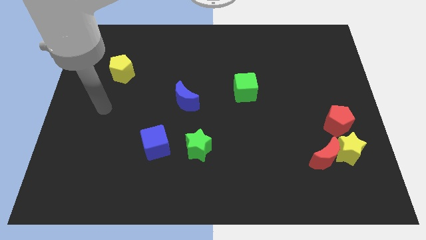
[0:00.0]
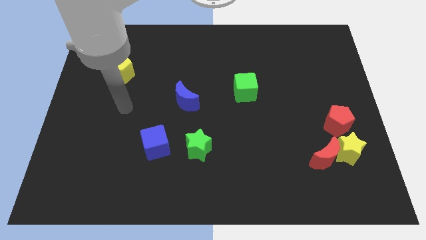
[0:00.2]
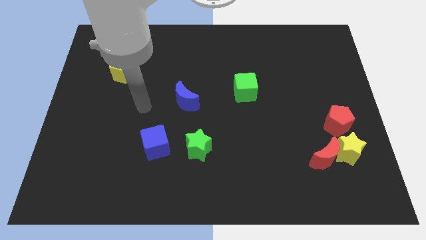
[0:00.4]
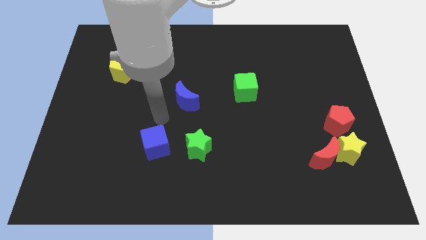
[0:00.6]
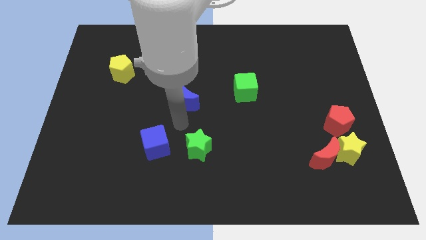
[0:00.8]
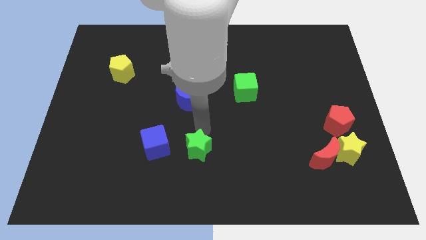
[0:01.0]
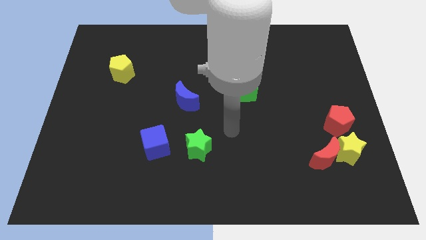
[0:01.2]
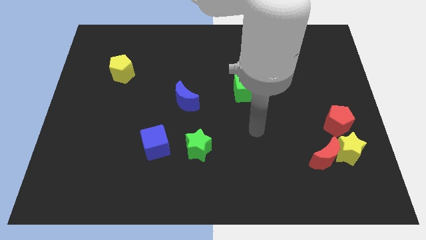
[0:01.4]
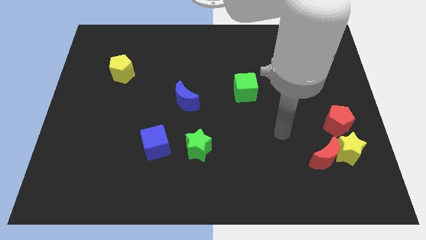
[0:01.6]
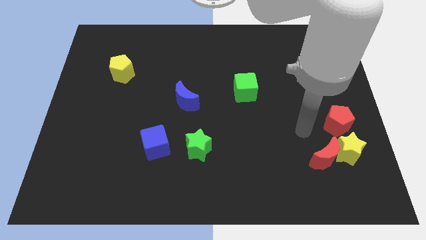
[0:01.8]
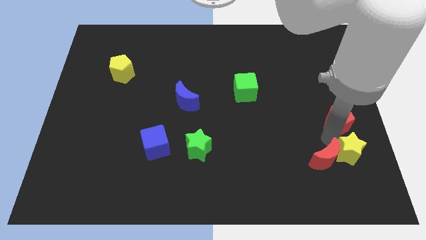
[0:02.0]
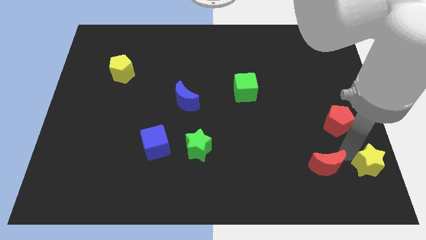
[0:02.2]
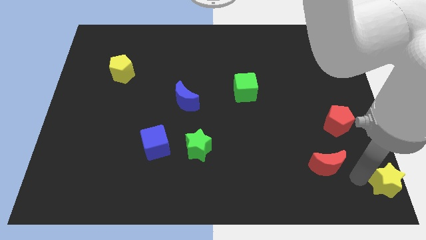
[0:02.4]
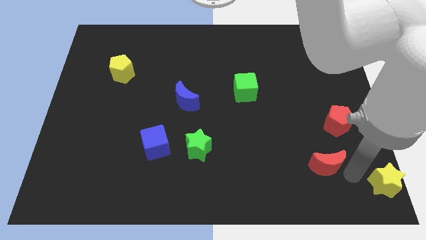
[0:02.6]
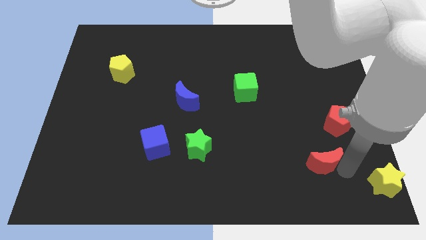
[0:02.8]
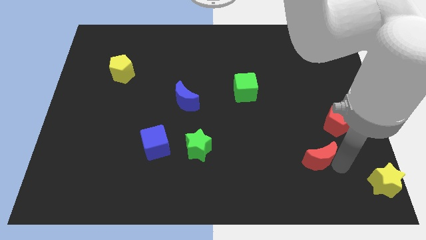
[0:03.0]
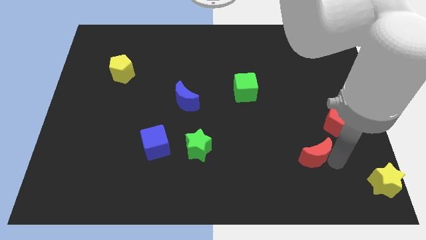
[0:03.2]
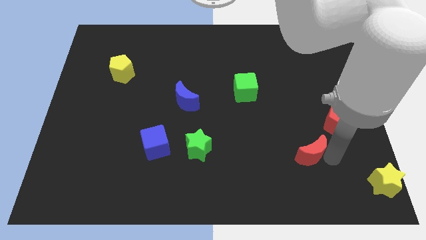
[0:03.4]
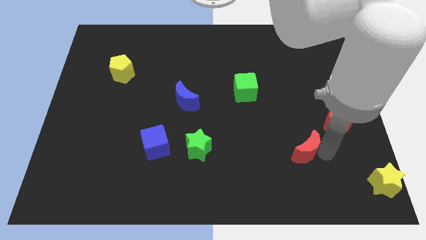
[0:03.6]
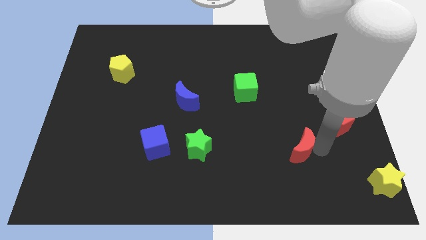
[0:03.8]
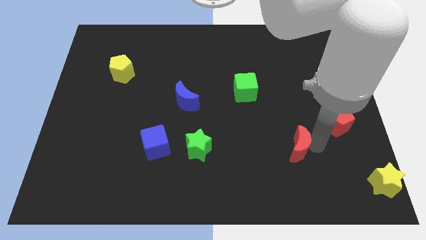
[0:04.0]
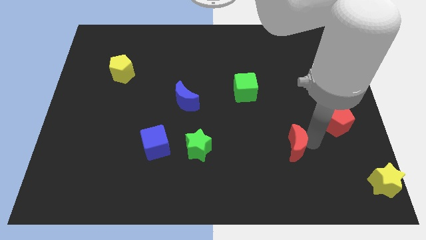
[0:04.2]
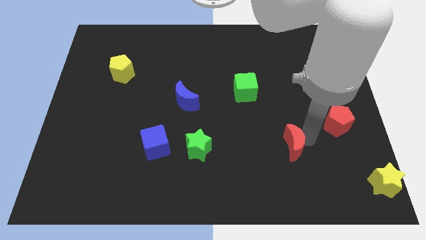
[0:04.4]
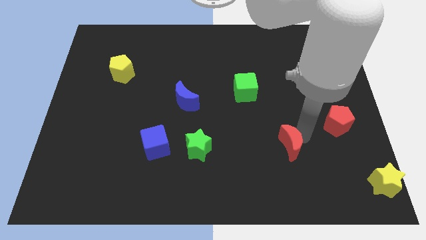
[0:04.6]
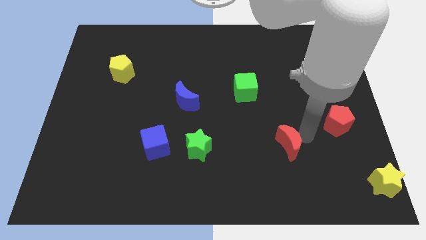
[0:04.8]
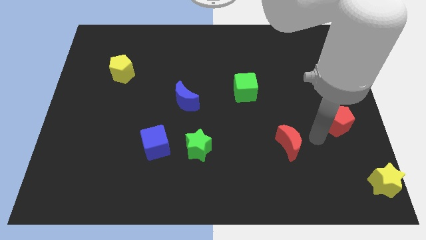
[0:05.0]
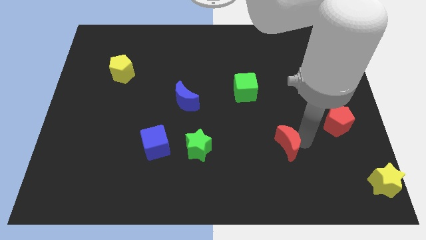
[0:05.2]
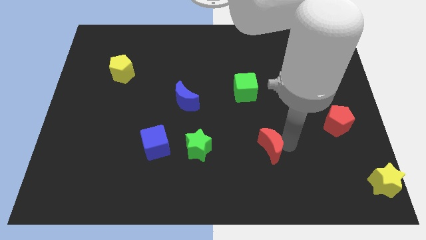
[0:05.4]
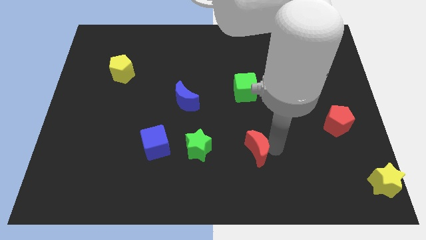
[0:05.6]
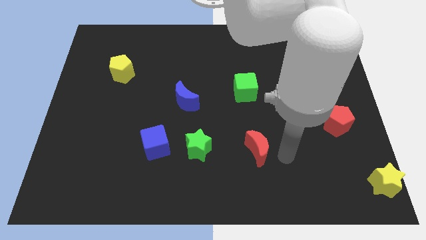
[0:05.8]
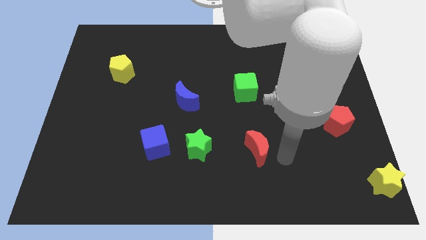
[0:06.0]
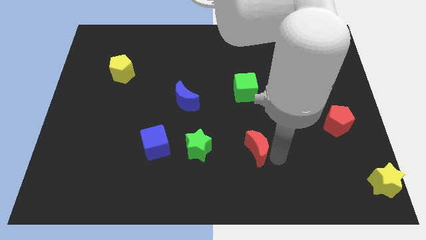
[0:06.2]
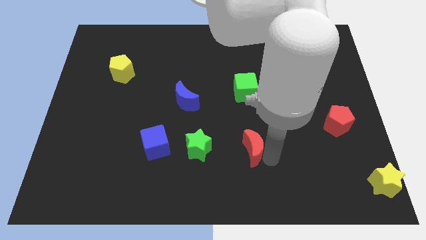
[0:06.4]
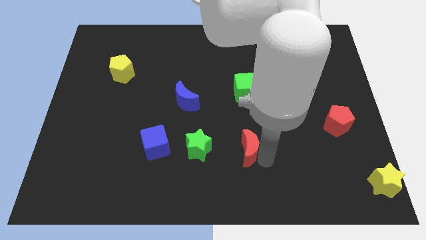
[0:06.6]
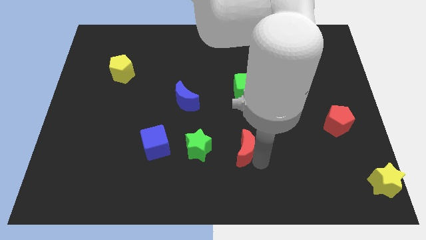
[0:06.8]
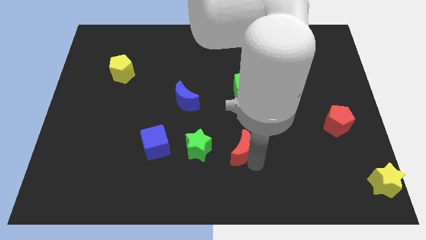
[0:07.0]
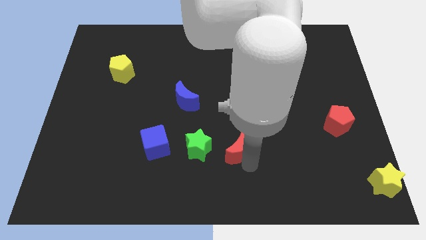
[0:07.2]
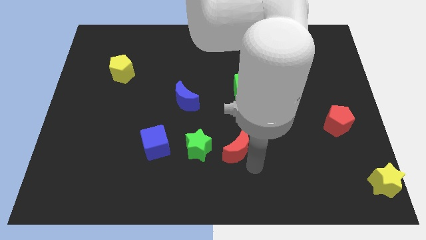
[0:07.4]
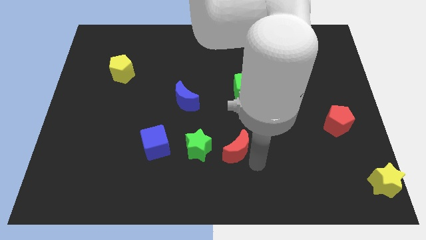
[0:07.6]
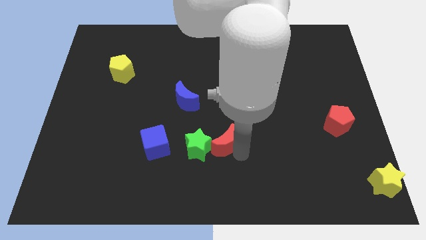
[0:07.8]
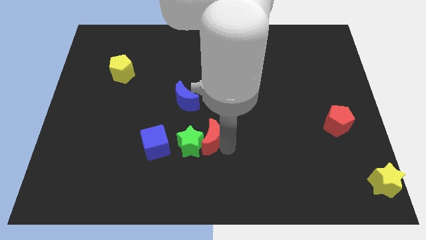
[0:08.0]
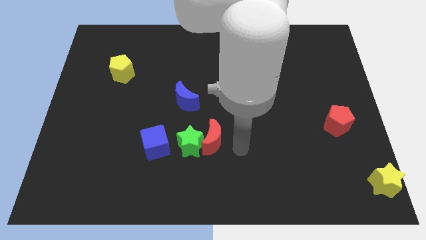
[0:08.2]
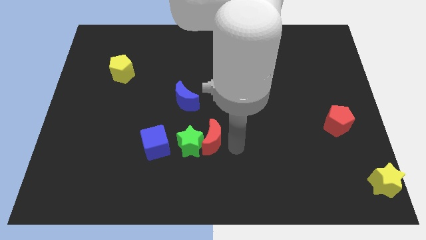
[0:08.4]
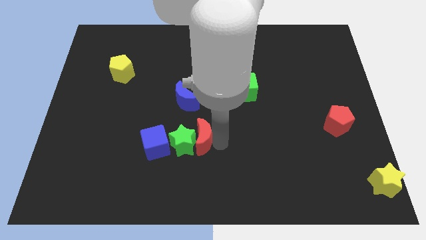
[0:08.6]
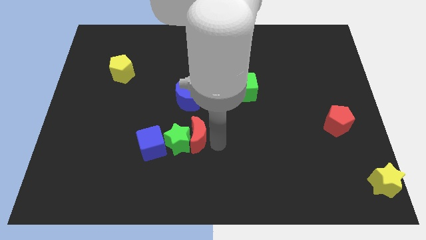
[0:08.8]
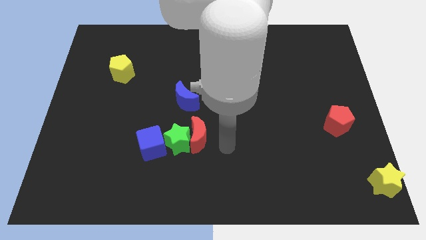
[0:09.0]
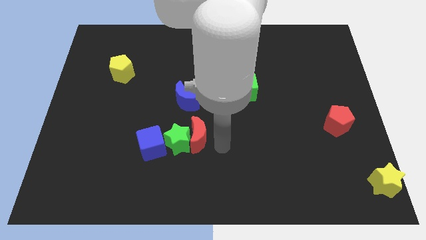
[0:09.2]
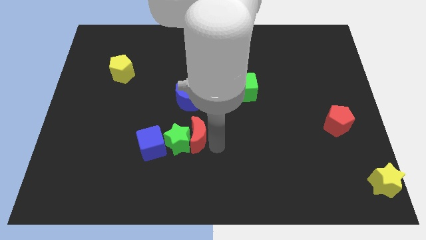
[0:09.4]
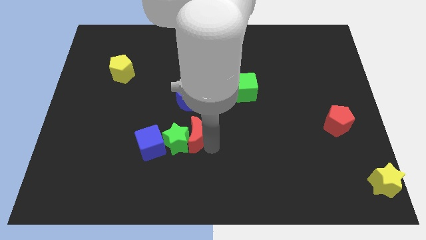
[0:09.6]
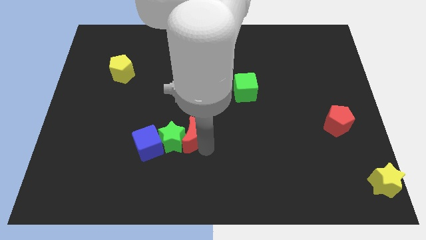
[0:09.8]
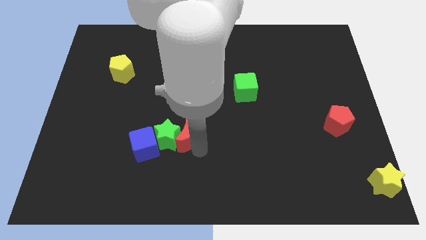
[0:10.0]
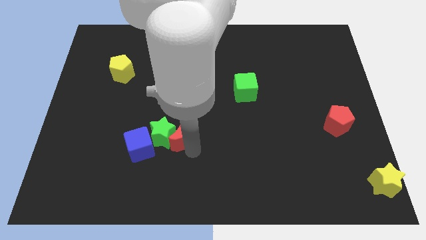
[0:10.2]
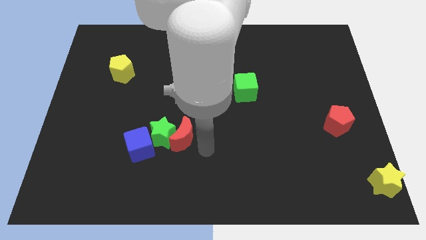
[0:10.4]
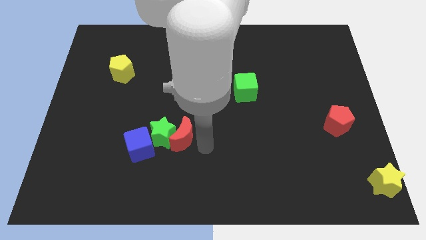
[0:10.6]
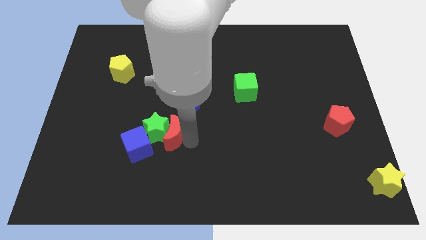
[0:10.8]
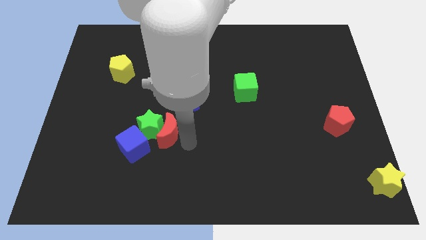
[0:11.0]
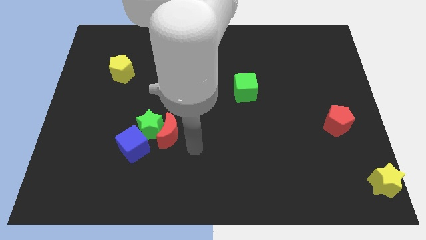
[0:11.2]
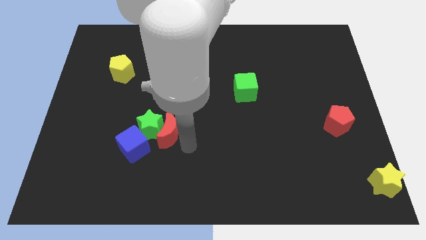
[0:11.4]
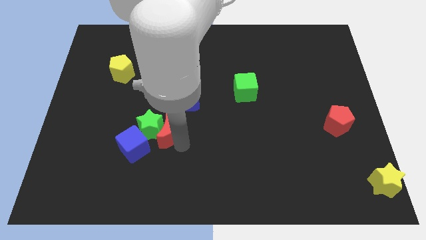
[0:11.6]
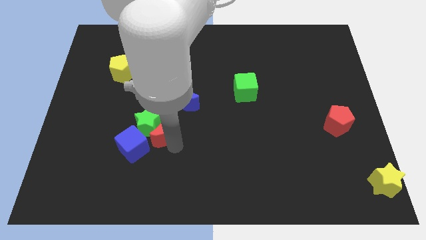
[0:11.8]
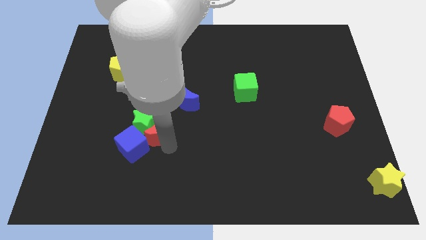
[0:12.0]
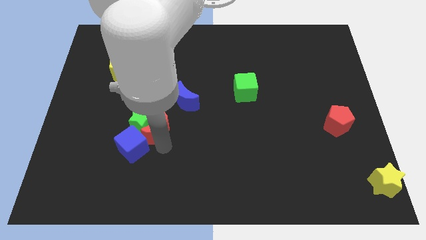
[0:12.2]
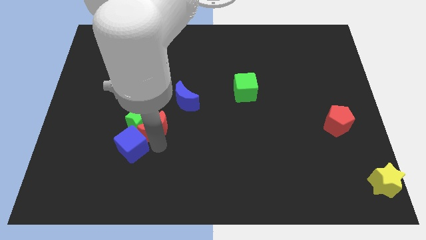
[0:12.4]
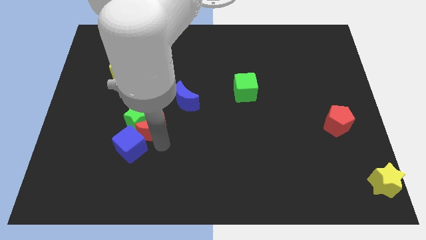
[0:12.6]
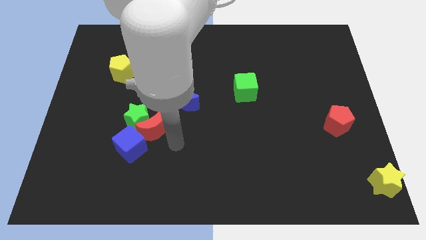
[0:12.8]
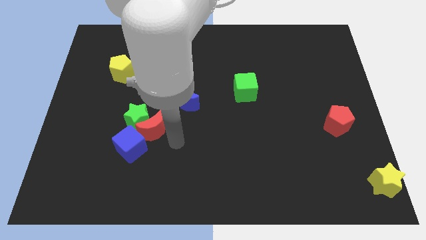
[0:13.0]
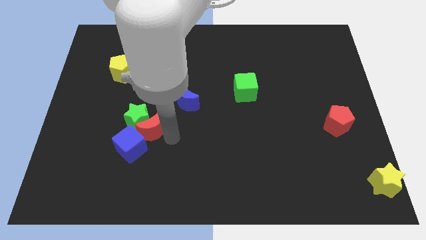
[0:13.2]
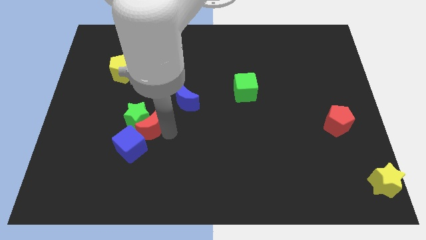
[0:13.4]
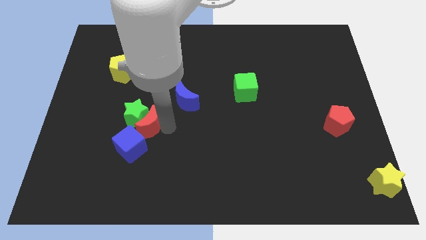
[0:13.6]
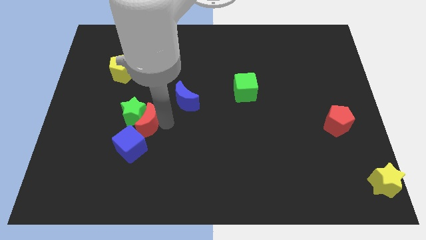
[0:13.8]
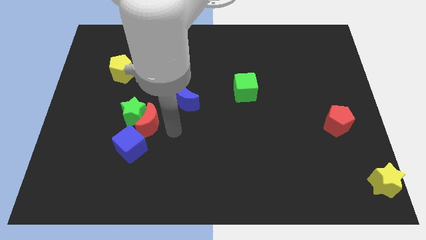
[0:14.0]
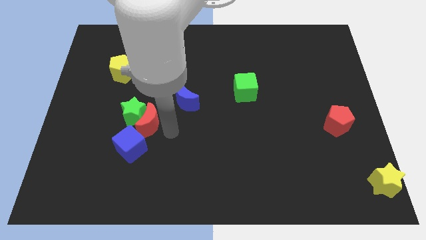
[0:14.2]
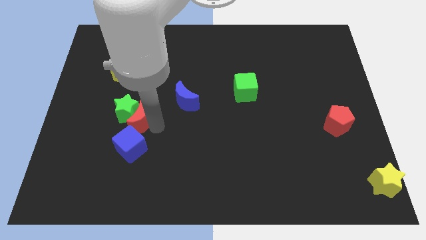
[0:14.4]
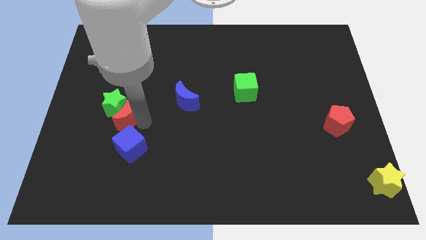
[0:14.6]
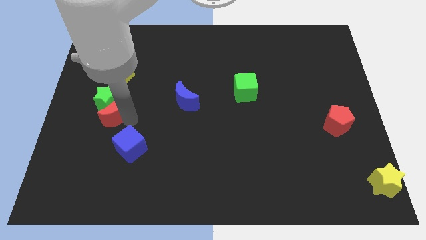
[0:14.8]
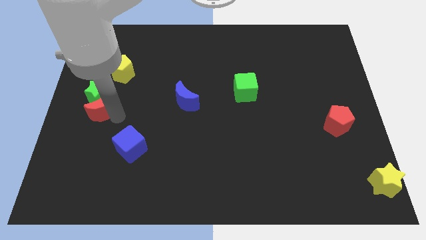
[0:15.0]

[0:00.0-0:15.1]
put the red moon to the left side of the board
